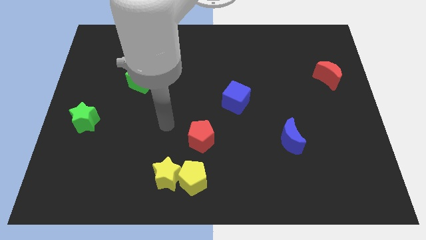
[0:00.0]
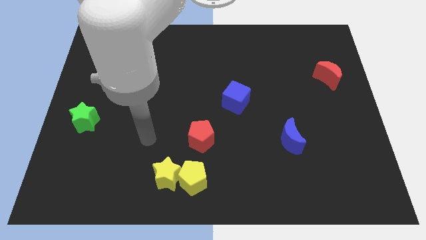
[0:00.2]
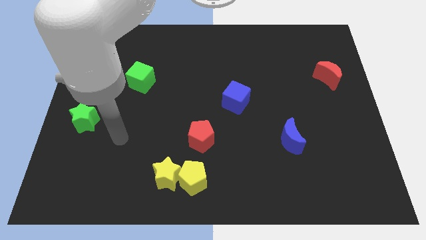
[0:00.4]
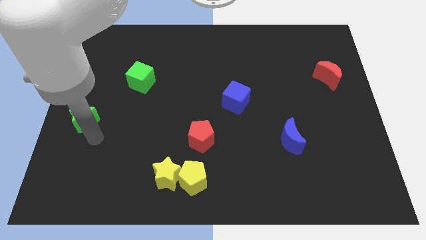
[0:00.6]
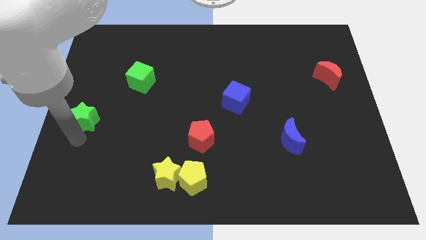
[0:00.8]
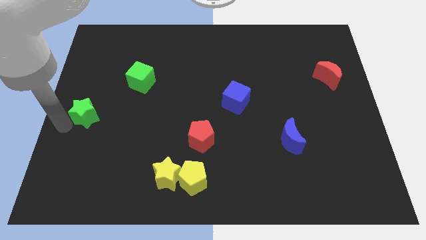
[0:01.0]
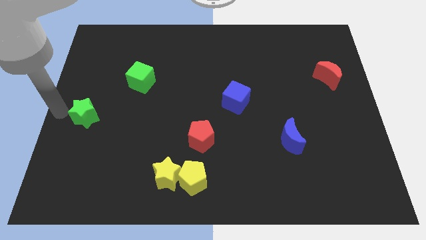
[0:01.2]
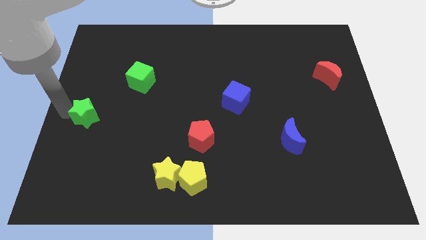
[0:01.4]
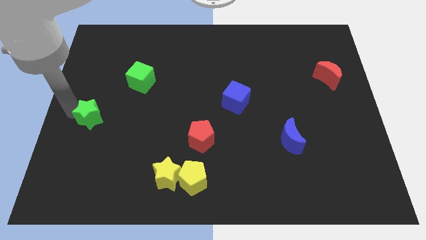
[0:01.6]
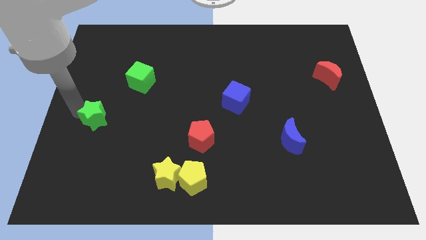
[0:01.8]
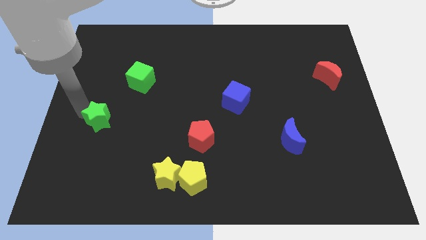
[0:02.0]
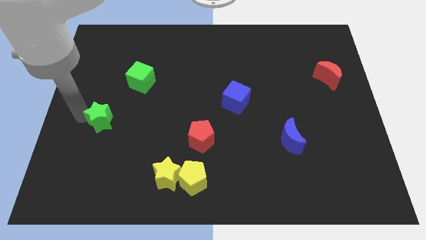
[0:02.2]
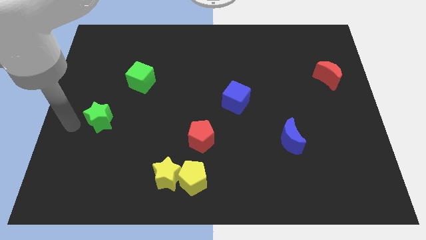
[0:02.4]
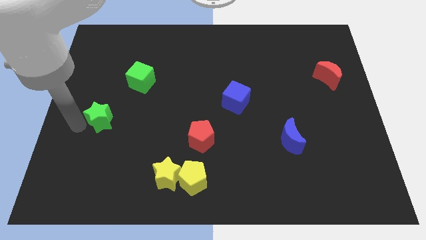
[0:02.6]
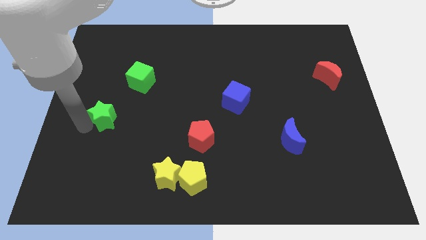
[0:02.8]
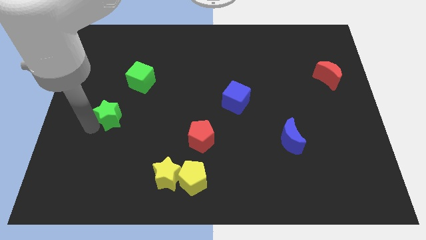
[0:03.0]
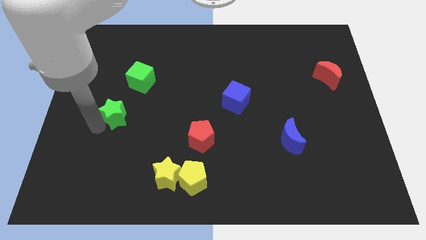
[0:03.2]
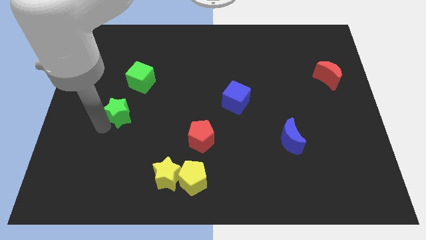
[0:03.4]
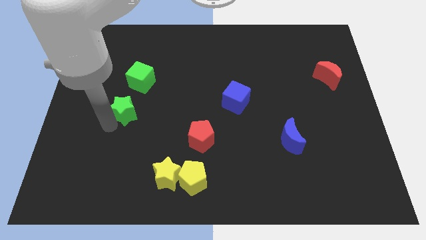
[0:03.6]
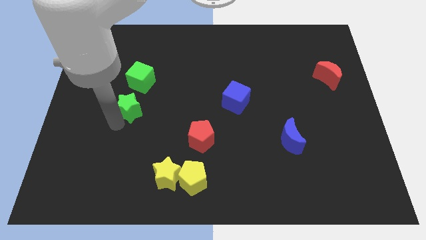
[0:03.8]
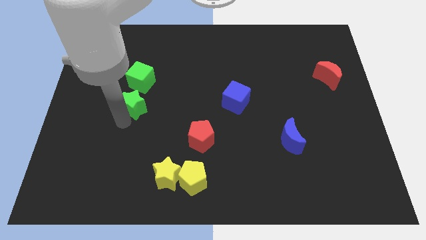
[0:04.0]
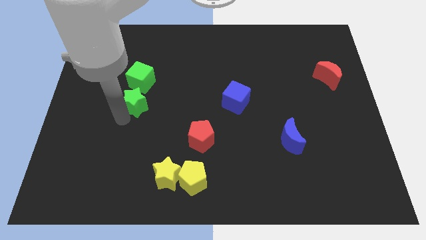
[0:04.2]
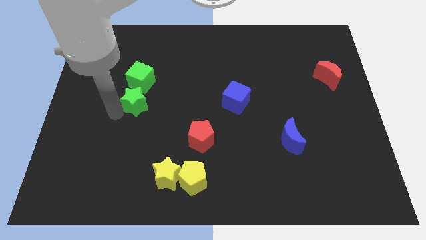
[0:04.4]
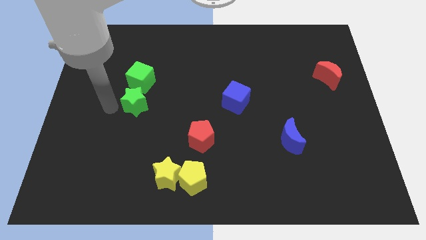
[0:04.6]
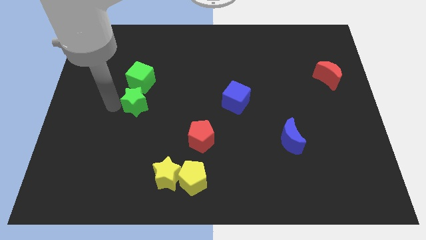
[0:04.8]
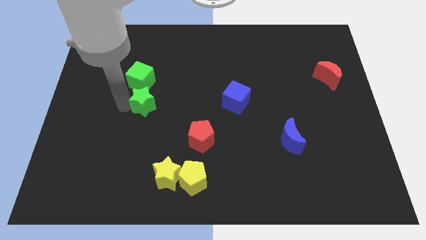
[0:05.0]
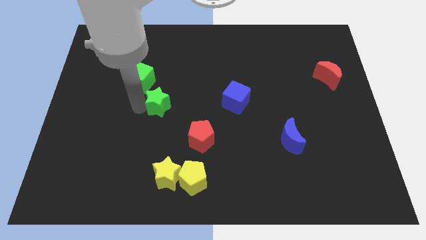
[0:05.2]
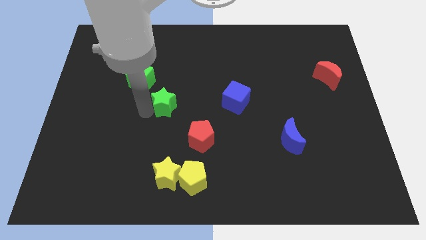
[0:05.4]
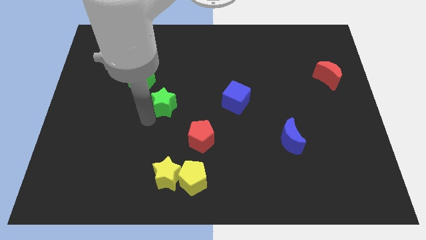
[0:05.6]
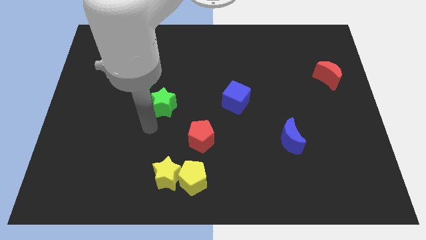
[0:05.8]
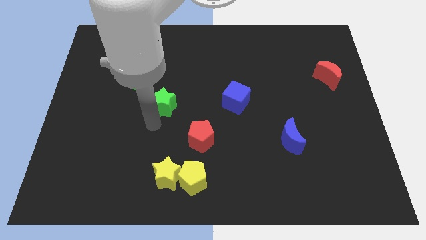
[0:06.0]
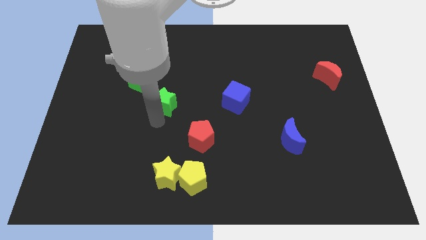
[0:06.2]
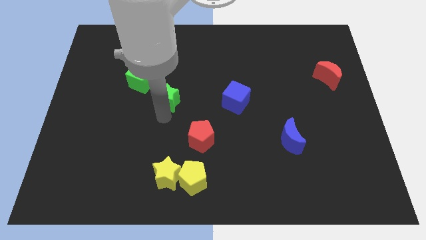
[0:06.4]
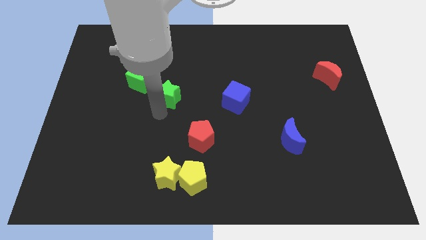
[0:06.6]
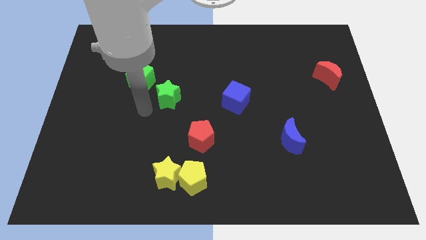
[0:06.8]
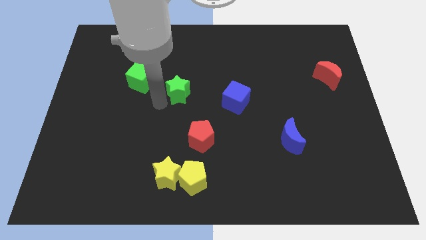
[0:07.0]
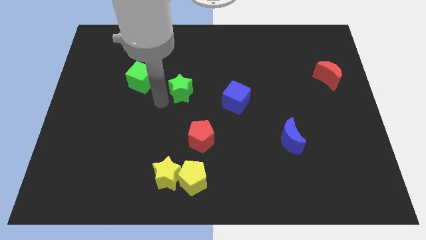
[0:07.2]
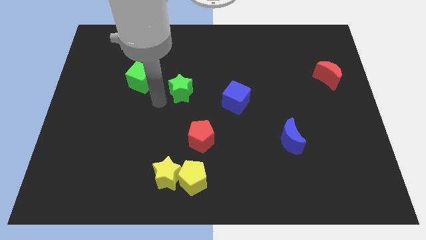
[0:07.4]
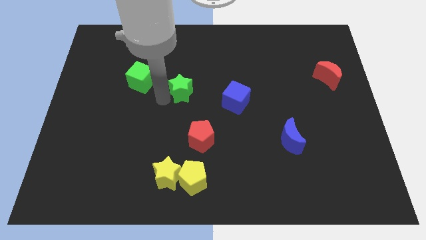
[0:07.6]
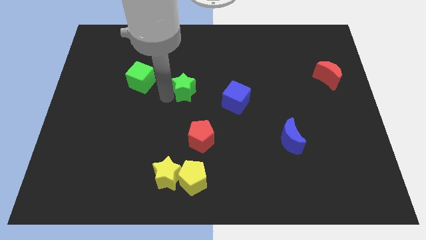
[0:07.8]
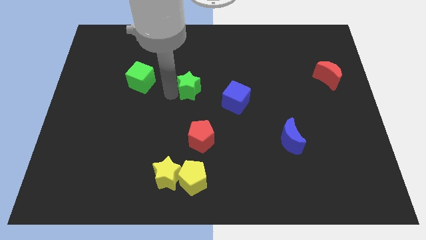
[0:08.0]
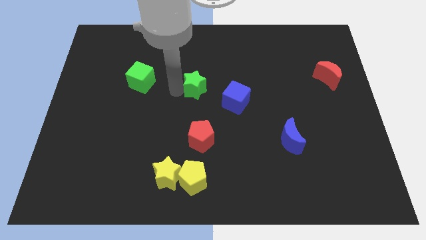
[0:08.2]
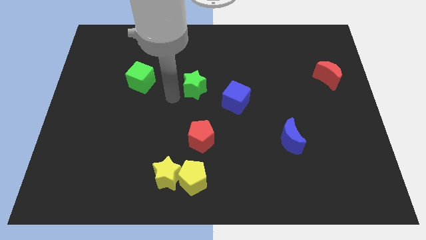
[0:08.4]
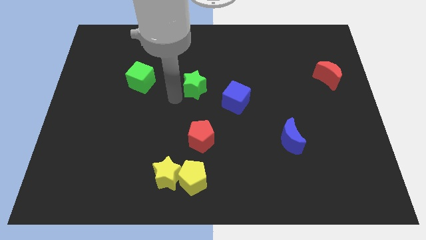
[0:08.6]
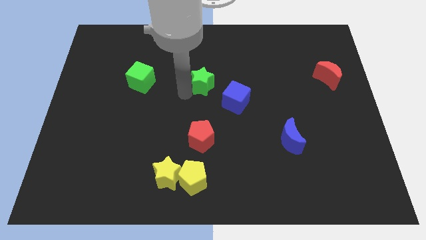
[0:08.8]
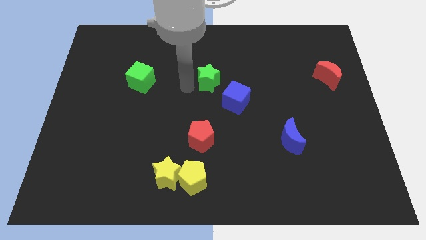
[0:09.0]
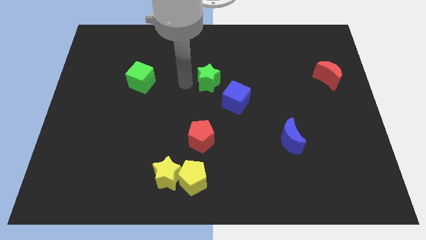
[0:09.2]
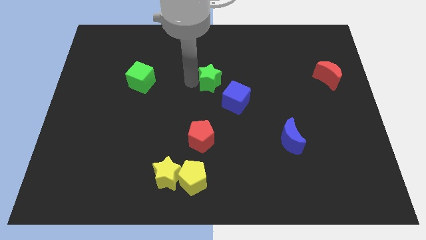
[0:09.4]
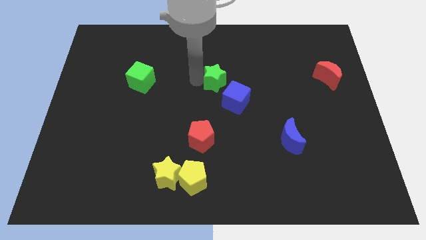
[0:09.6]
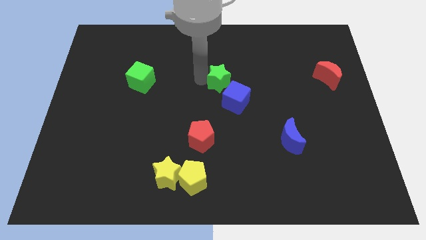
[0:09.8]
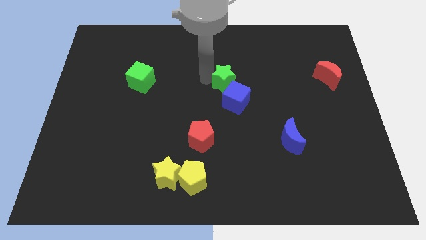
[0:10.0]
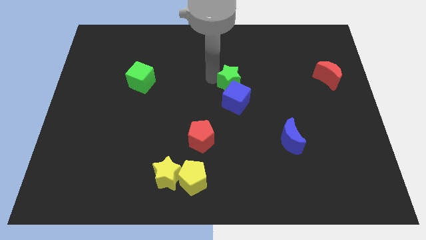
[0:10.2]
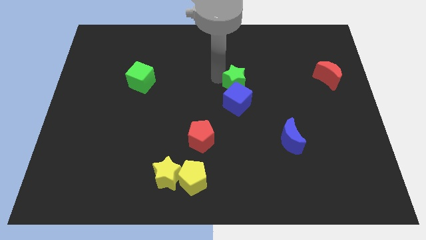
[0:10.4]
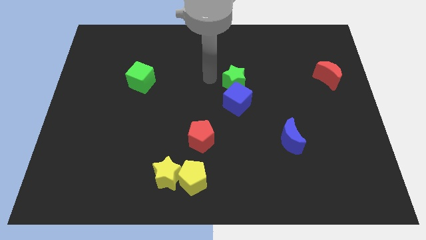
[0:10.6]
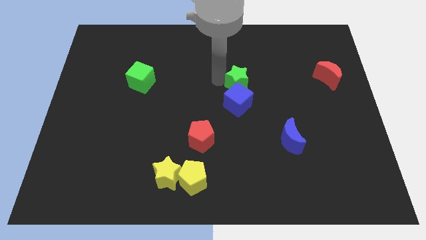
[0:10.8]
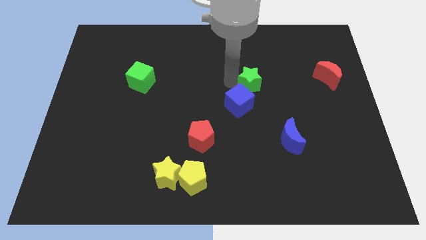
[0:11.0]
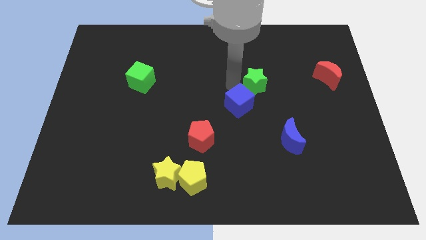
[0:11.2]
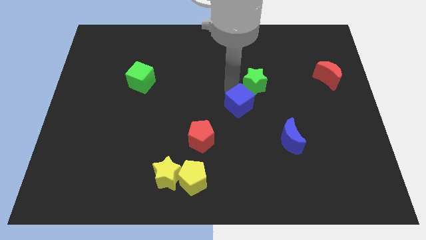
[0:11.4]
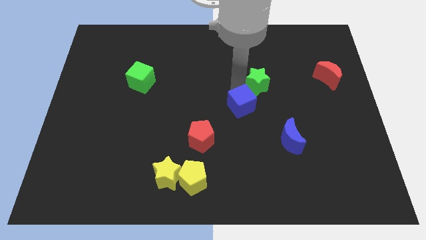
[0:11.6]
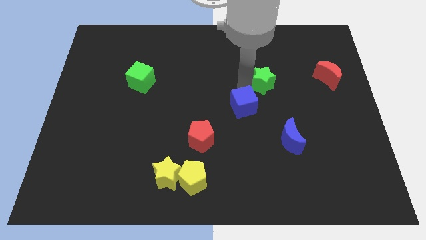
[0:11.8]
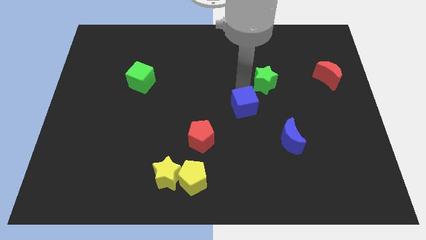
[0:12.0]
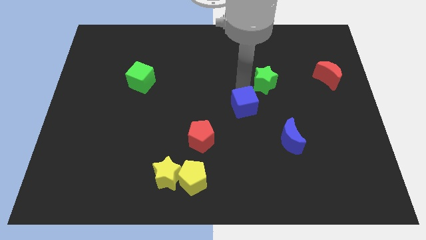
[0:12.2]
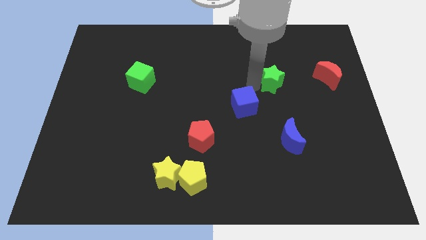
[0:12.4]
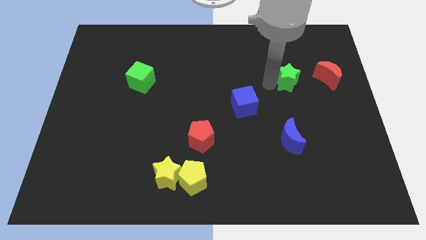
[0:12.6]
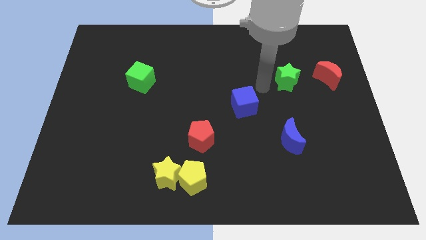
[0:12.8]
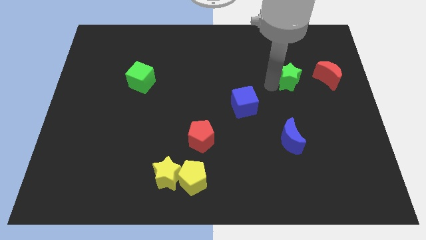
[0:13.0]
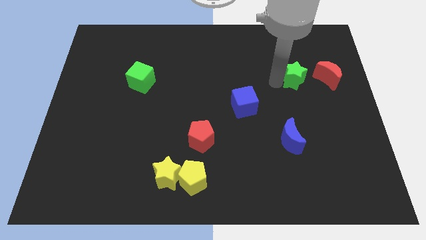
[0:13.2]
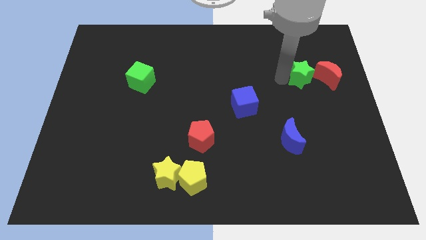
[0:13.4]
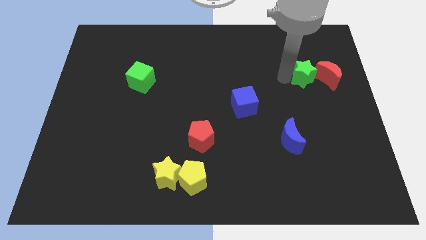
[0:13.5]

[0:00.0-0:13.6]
slide the green star close to the red moon
